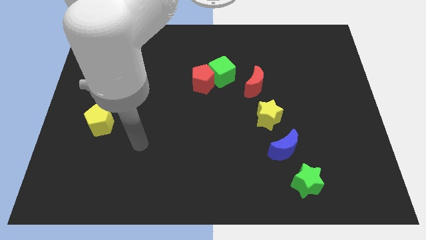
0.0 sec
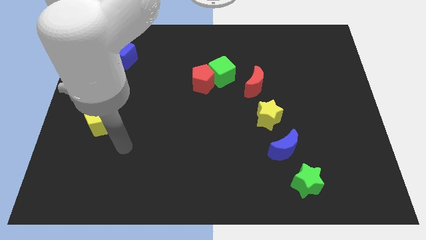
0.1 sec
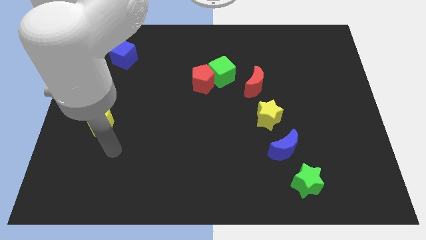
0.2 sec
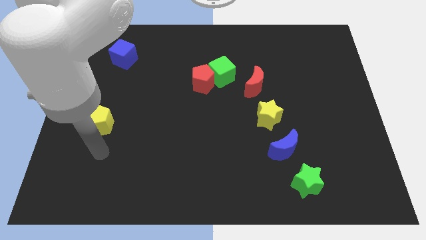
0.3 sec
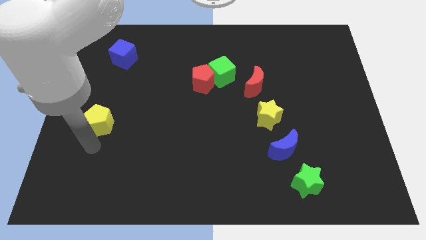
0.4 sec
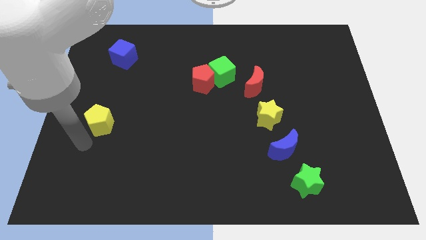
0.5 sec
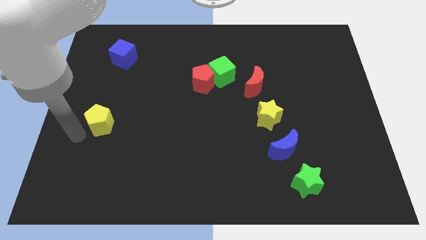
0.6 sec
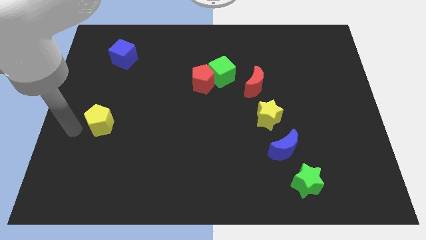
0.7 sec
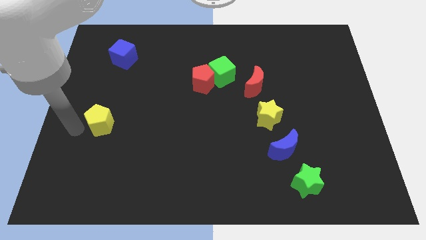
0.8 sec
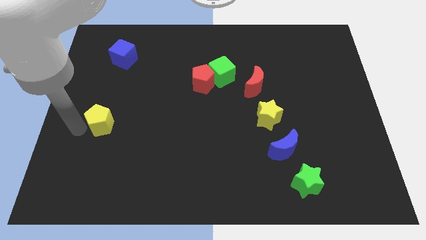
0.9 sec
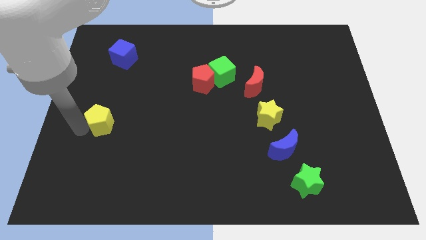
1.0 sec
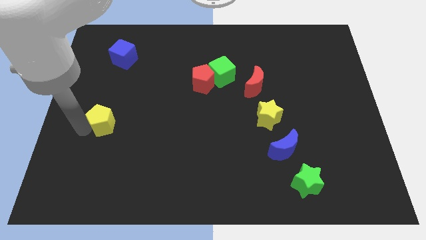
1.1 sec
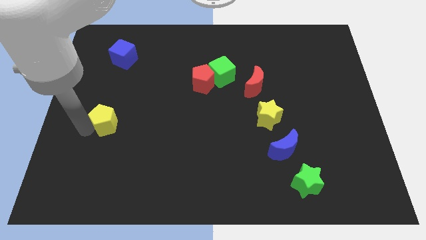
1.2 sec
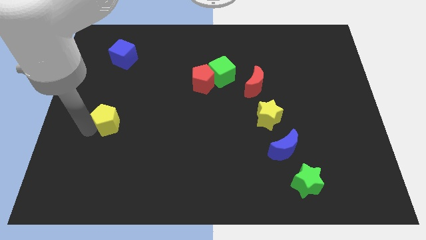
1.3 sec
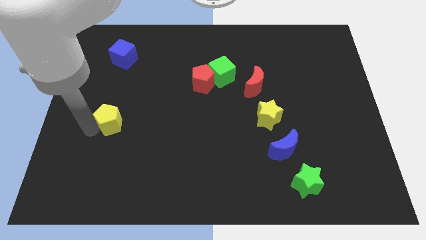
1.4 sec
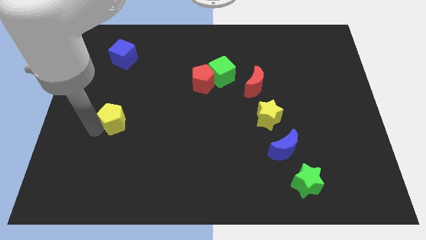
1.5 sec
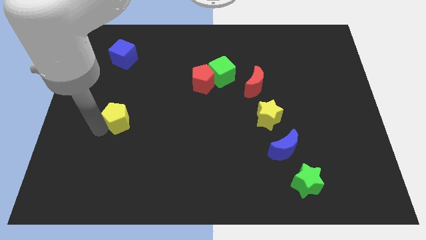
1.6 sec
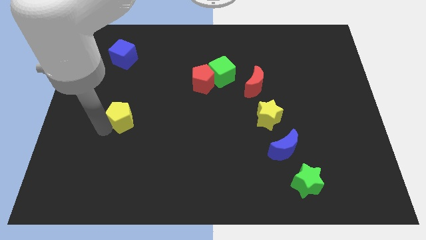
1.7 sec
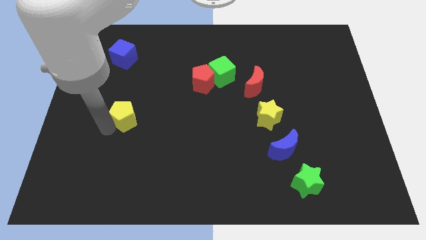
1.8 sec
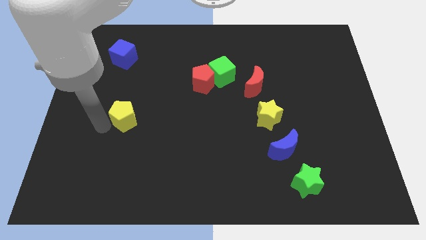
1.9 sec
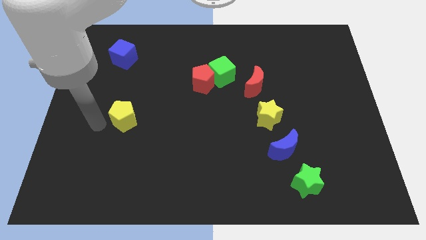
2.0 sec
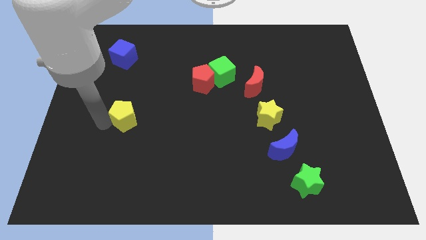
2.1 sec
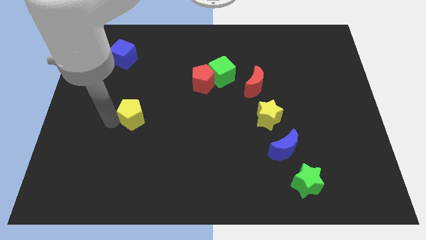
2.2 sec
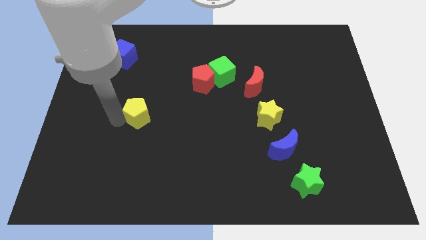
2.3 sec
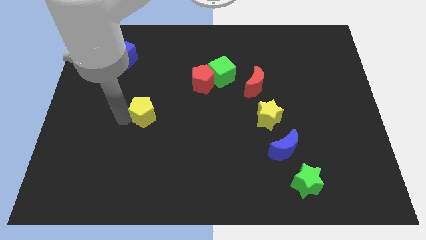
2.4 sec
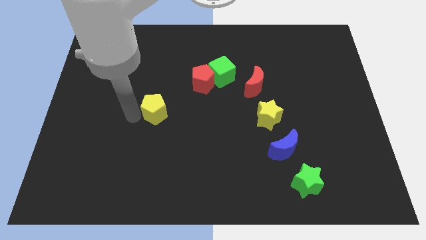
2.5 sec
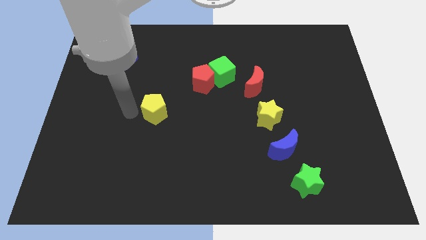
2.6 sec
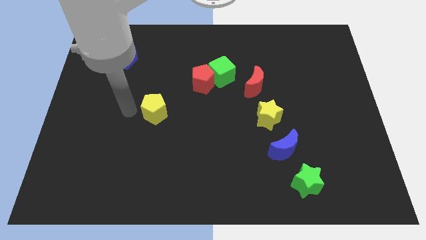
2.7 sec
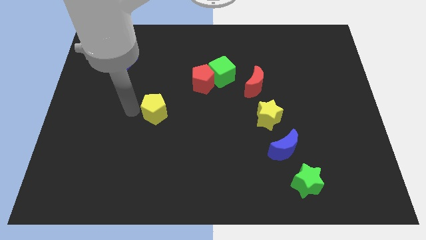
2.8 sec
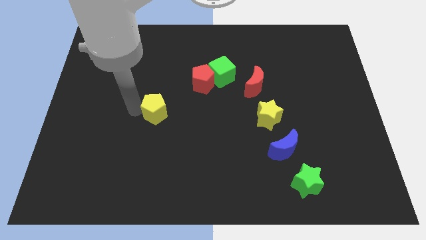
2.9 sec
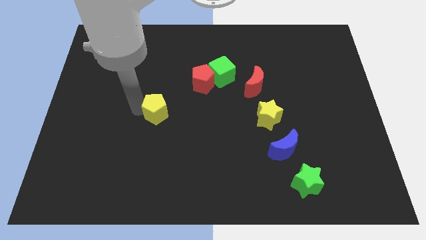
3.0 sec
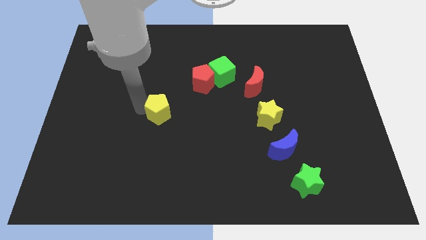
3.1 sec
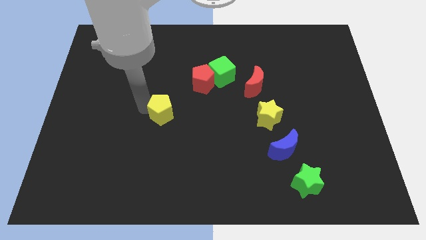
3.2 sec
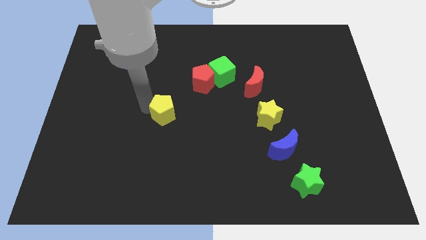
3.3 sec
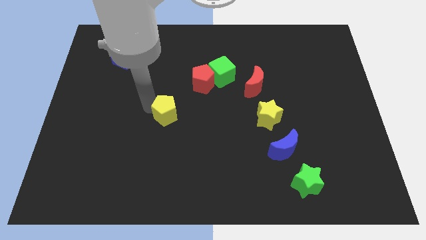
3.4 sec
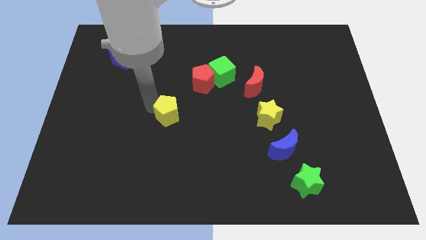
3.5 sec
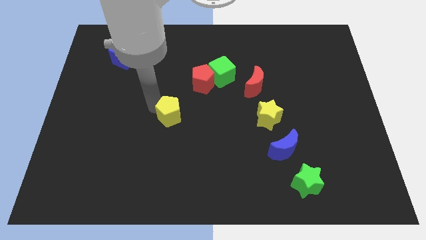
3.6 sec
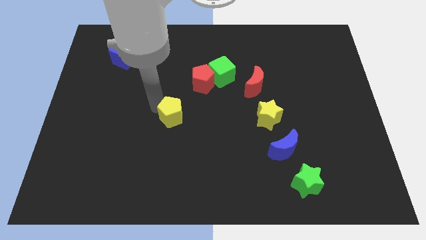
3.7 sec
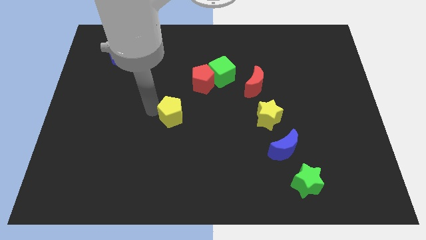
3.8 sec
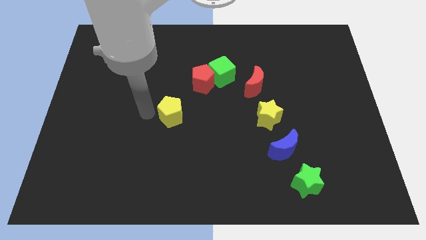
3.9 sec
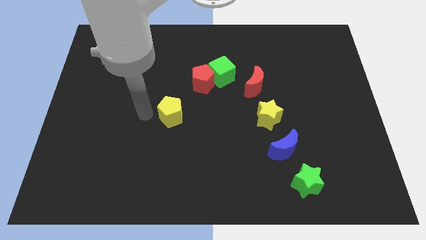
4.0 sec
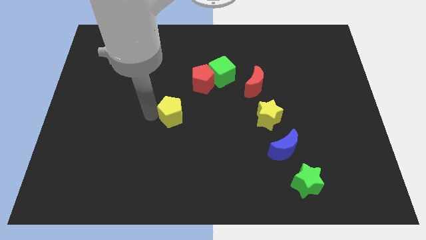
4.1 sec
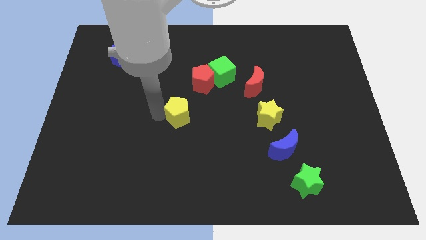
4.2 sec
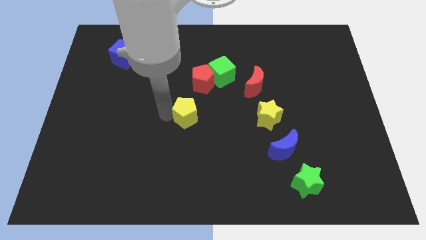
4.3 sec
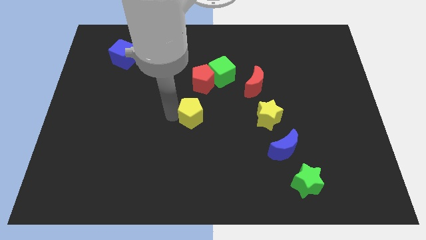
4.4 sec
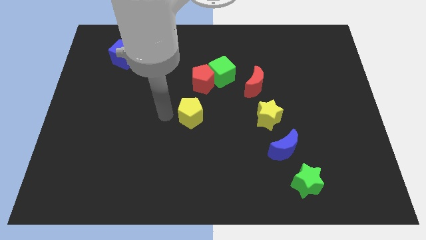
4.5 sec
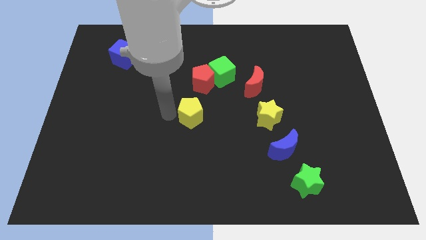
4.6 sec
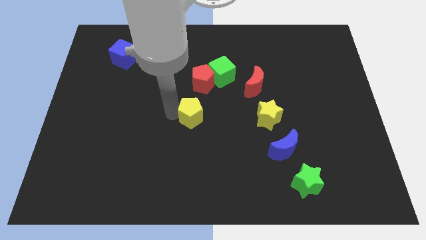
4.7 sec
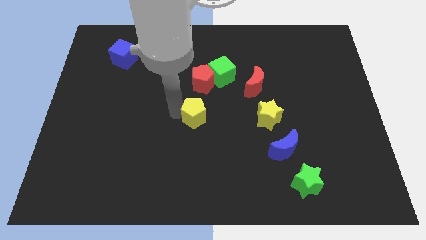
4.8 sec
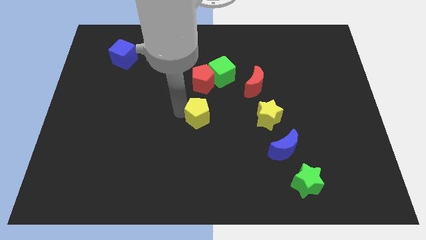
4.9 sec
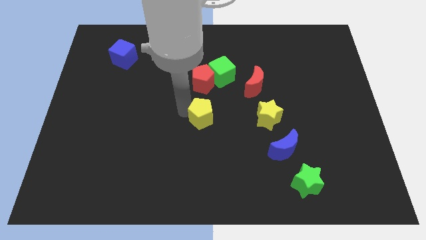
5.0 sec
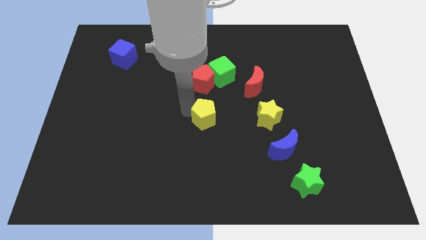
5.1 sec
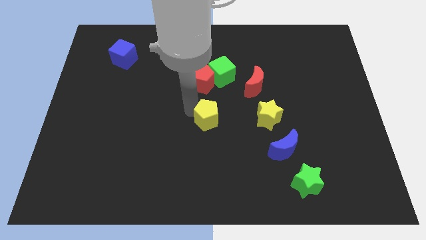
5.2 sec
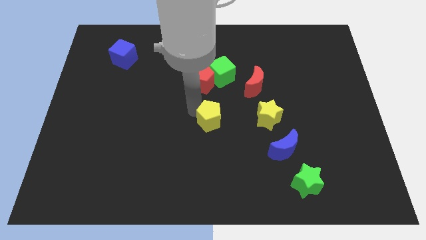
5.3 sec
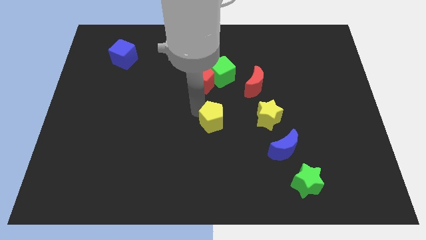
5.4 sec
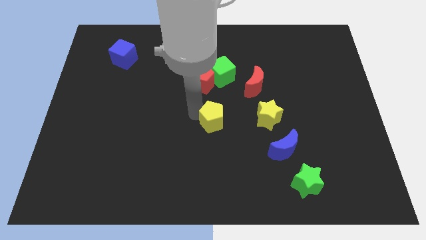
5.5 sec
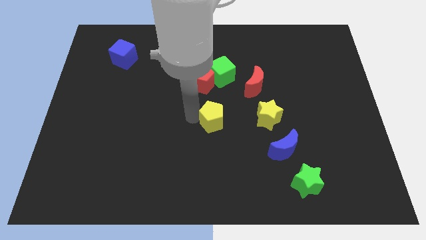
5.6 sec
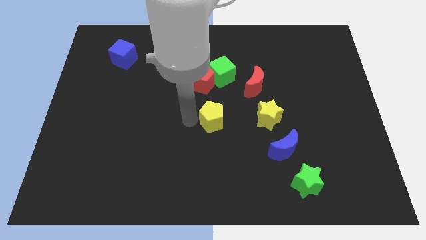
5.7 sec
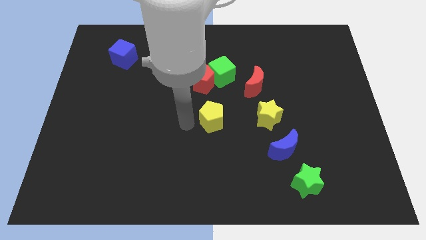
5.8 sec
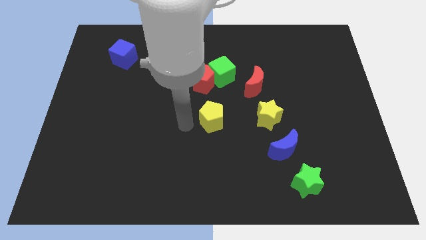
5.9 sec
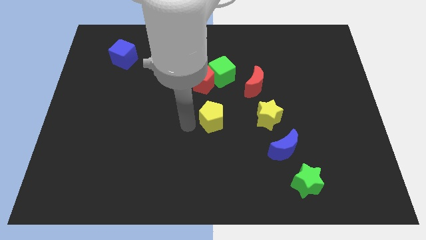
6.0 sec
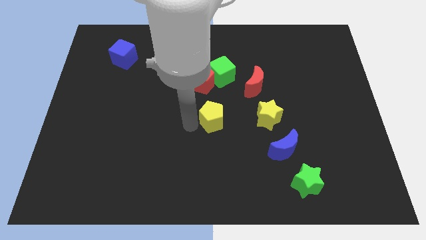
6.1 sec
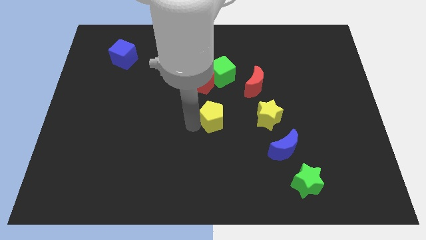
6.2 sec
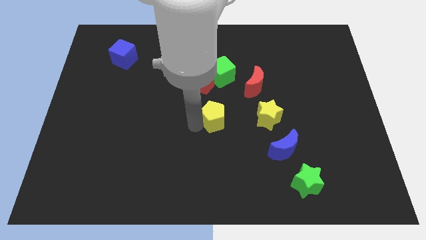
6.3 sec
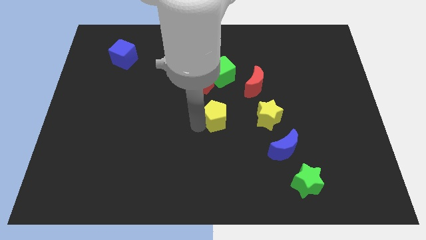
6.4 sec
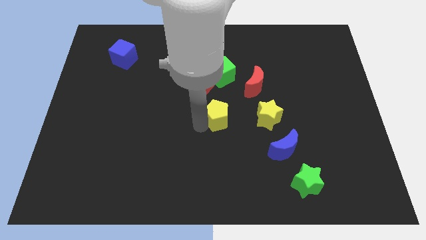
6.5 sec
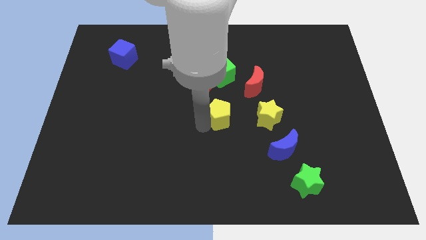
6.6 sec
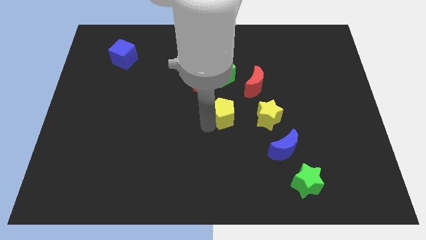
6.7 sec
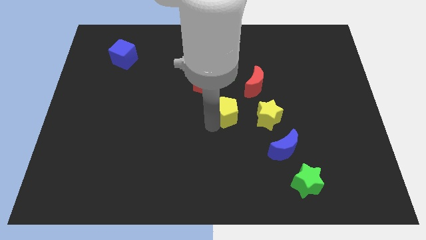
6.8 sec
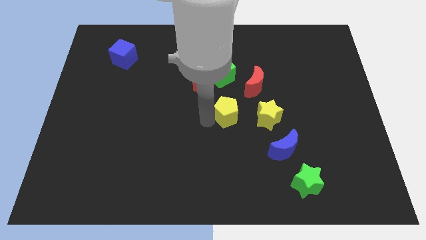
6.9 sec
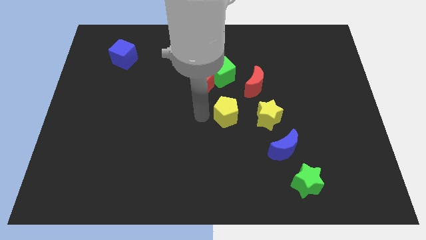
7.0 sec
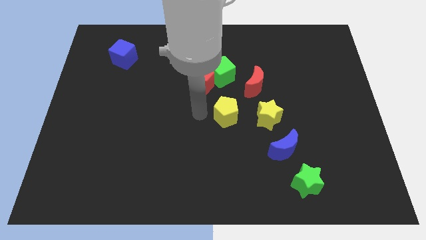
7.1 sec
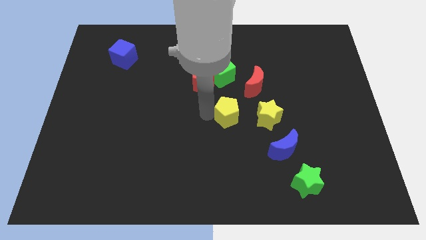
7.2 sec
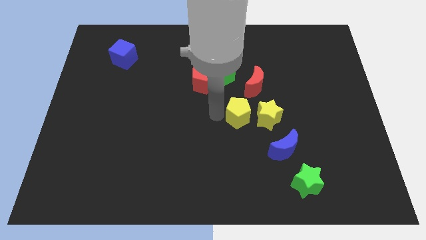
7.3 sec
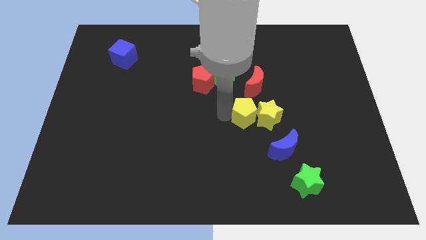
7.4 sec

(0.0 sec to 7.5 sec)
put the yellow pentagon close to the yellow star

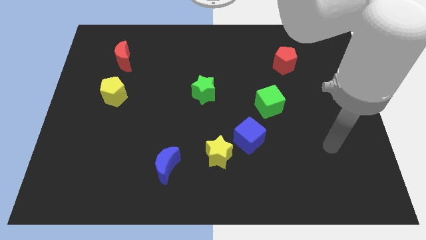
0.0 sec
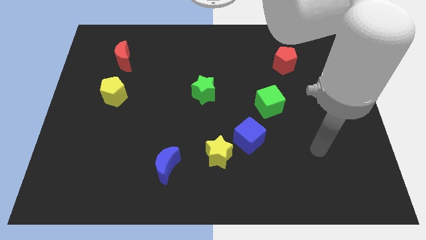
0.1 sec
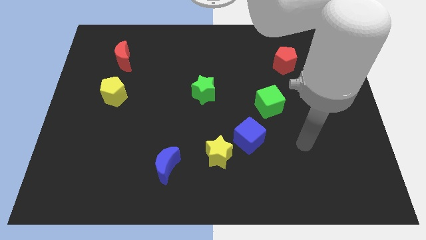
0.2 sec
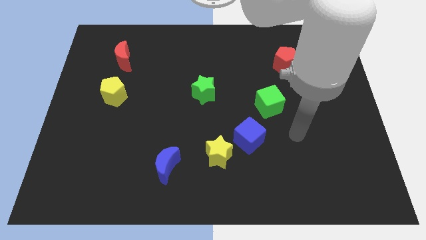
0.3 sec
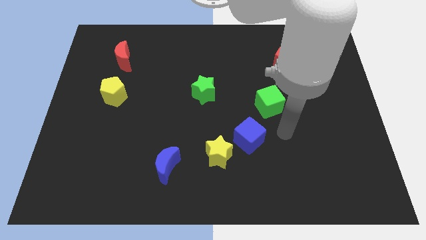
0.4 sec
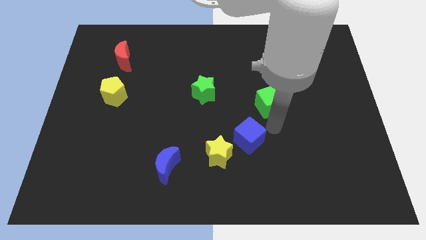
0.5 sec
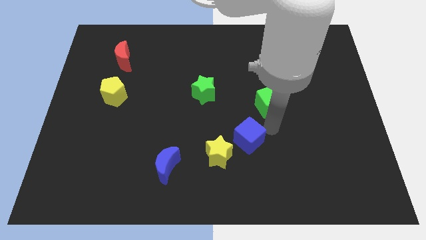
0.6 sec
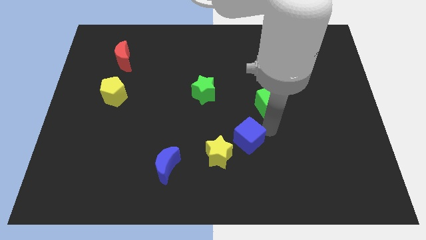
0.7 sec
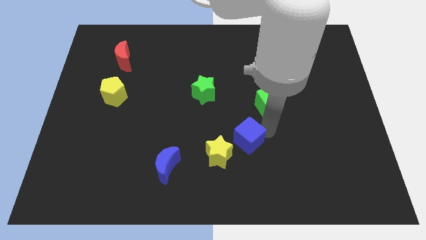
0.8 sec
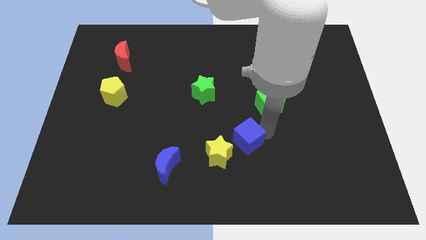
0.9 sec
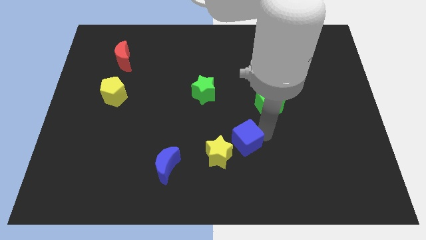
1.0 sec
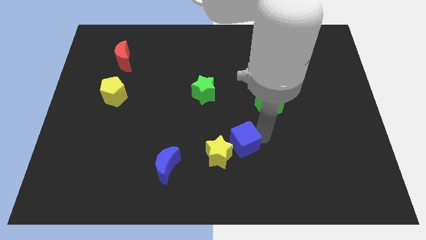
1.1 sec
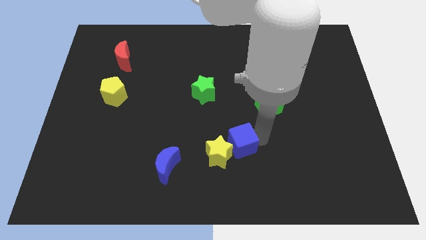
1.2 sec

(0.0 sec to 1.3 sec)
put the blue cube towards the yellow star
